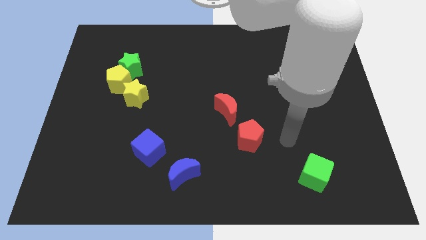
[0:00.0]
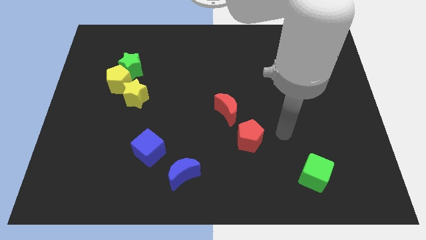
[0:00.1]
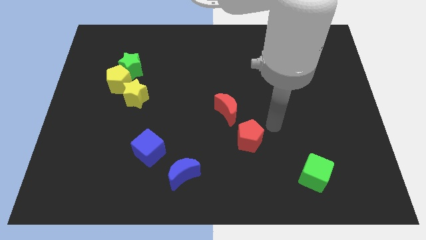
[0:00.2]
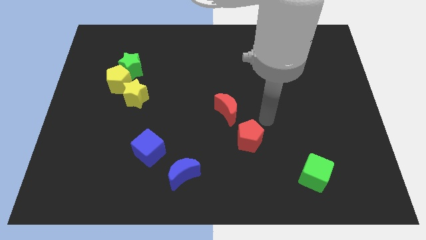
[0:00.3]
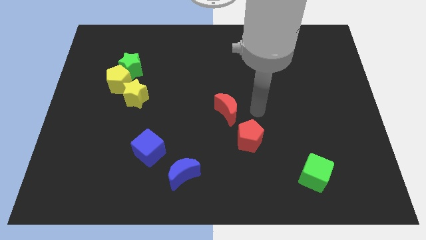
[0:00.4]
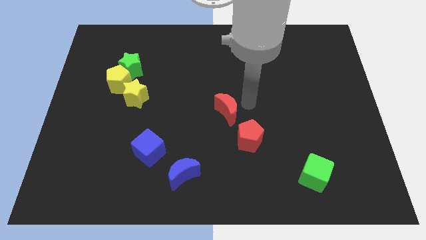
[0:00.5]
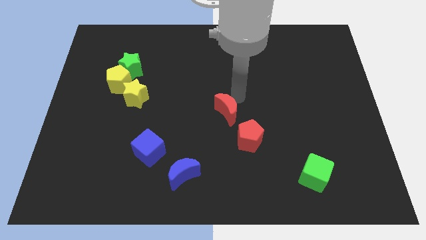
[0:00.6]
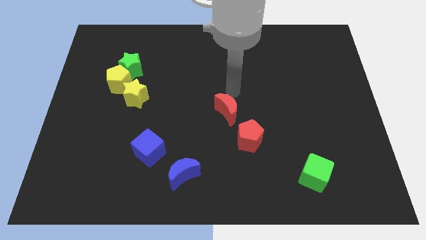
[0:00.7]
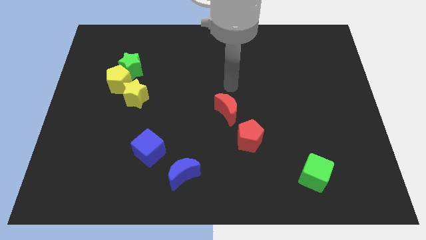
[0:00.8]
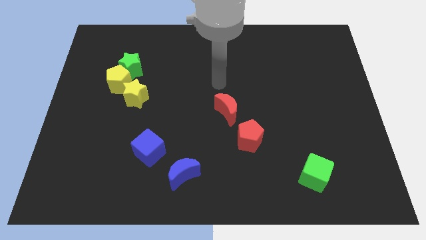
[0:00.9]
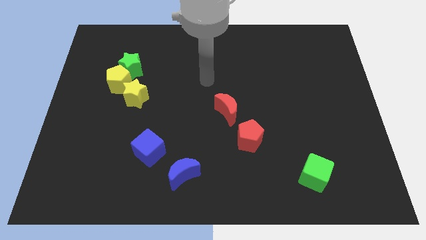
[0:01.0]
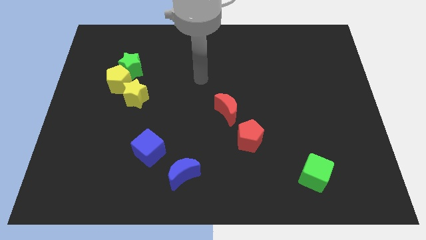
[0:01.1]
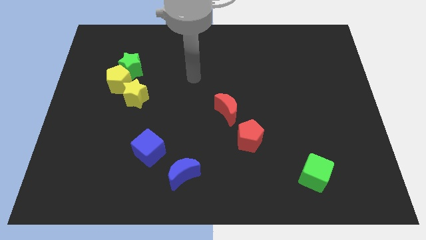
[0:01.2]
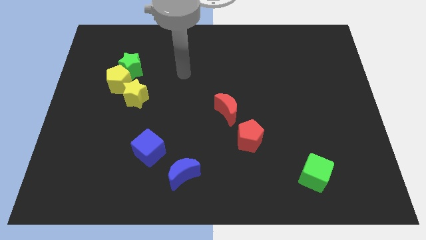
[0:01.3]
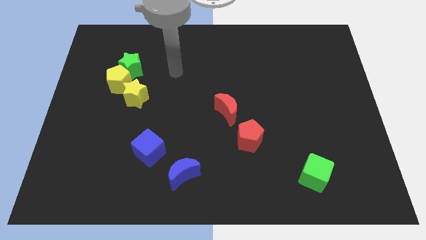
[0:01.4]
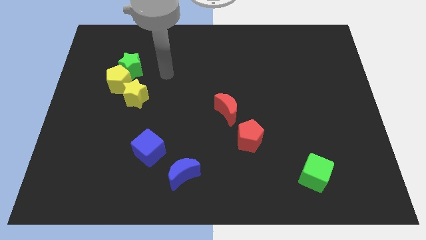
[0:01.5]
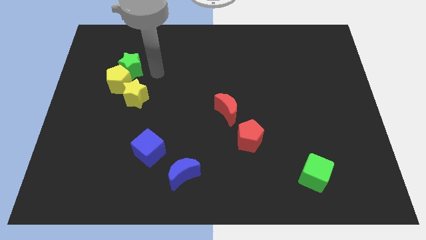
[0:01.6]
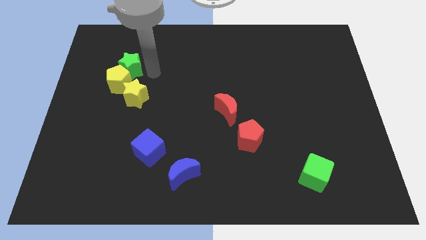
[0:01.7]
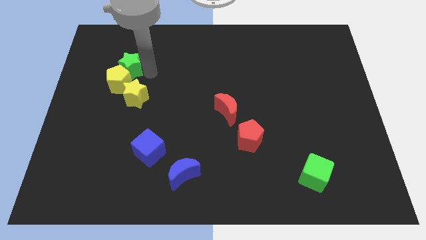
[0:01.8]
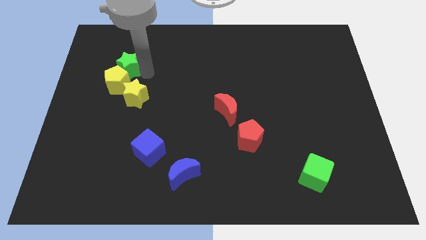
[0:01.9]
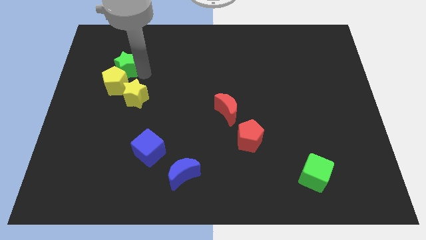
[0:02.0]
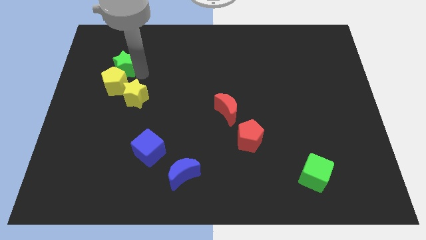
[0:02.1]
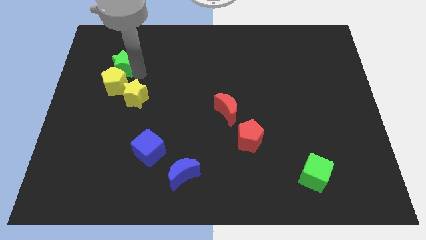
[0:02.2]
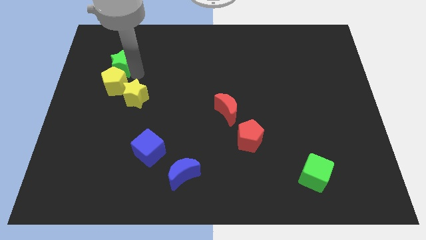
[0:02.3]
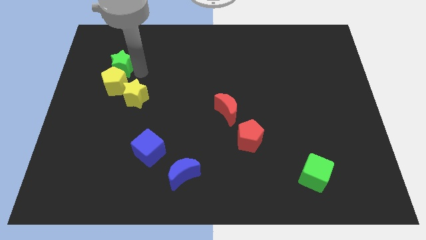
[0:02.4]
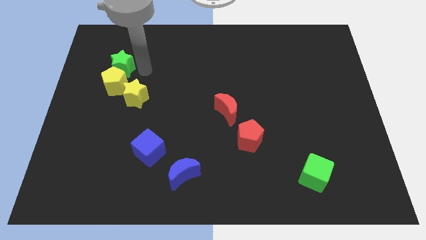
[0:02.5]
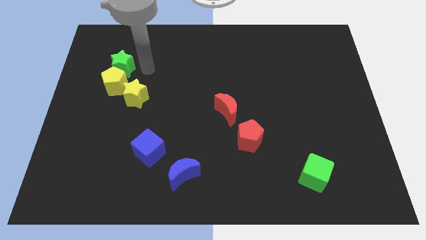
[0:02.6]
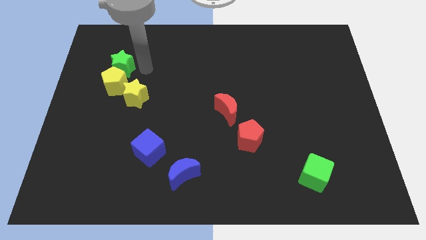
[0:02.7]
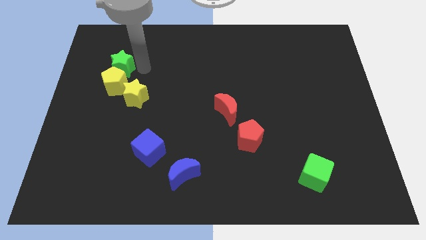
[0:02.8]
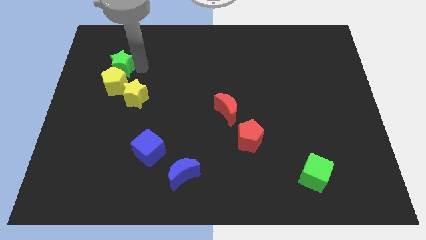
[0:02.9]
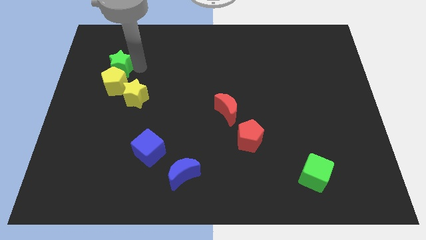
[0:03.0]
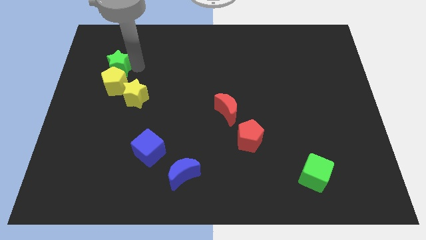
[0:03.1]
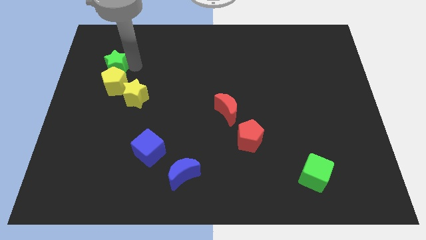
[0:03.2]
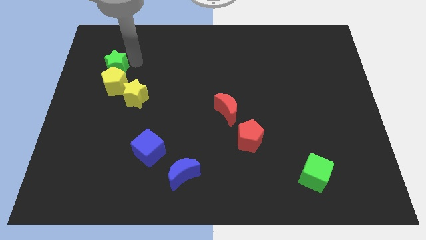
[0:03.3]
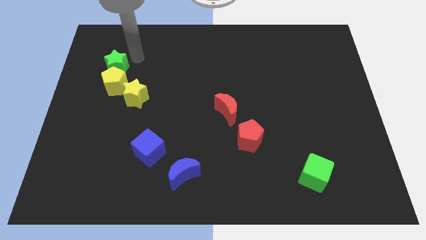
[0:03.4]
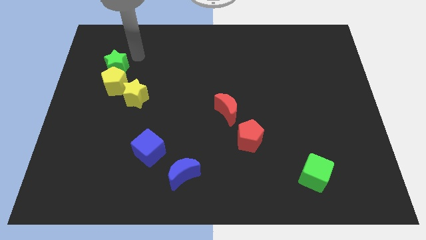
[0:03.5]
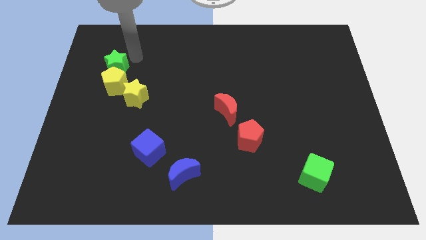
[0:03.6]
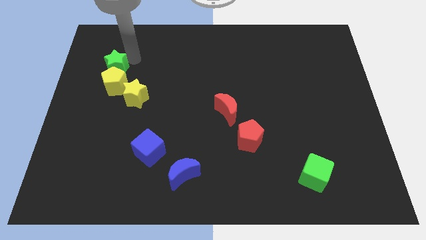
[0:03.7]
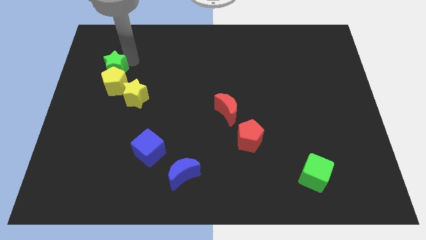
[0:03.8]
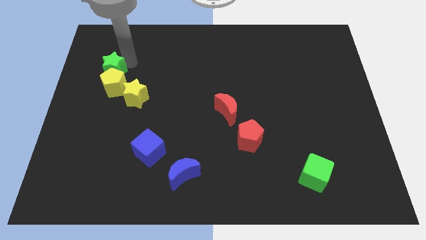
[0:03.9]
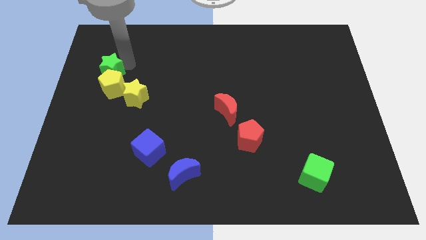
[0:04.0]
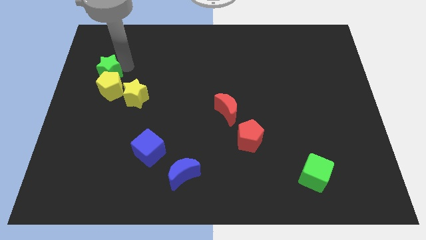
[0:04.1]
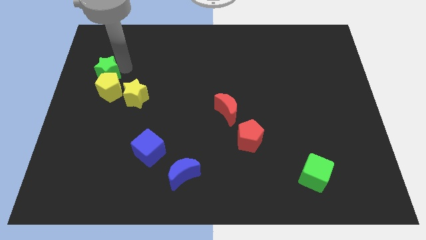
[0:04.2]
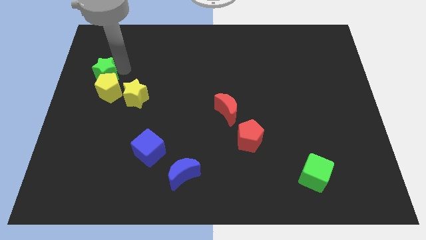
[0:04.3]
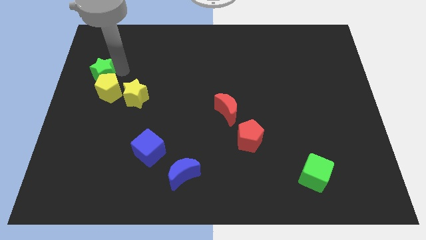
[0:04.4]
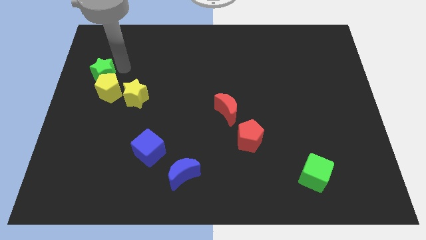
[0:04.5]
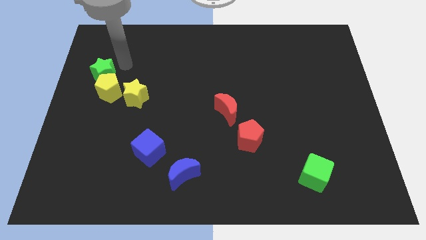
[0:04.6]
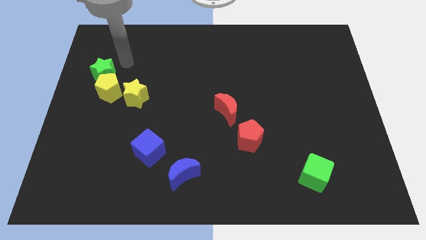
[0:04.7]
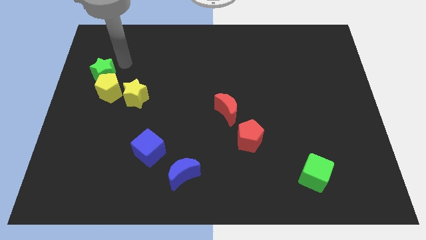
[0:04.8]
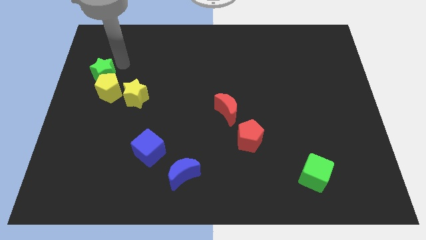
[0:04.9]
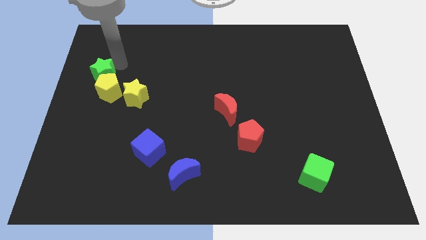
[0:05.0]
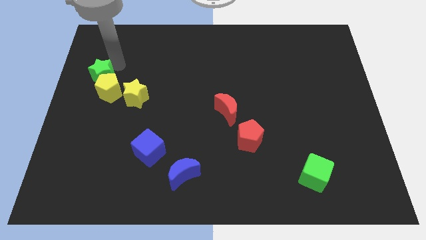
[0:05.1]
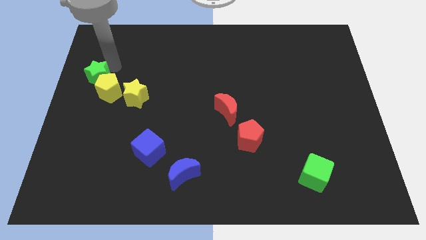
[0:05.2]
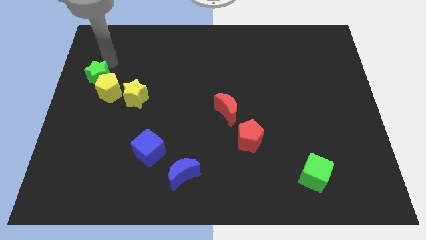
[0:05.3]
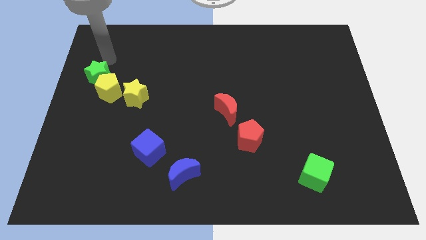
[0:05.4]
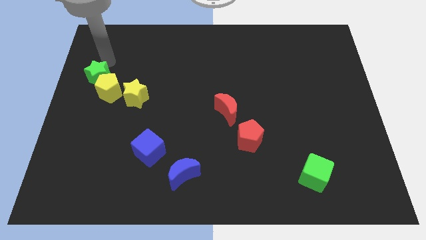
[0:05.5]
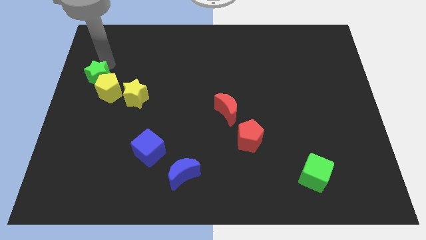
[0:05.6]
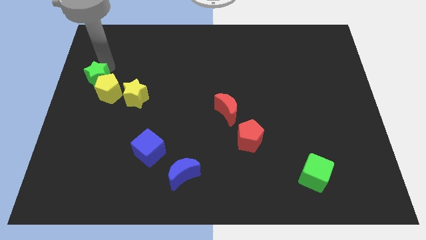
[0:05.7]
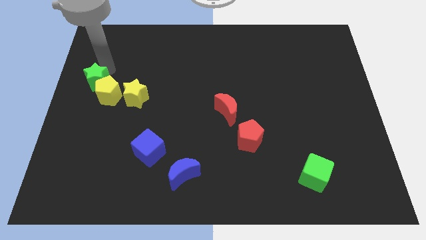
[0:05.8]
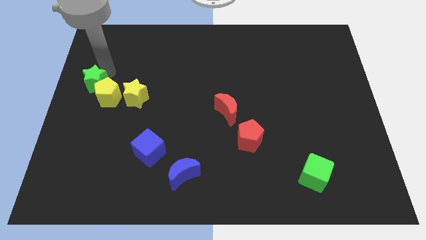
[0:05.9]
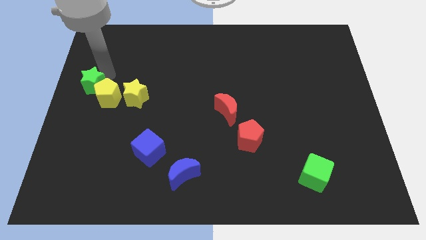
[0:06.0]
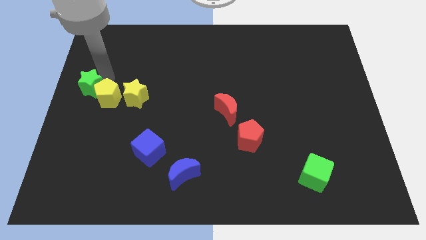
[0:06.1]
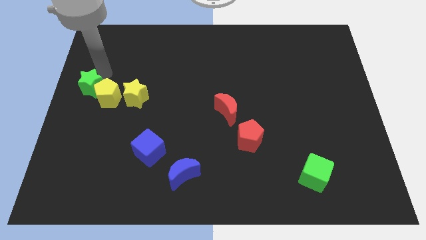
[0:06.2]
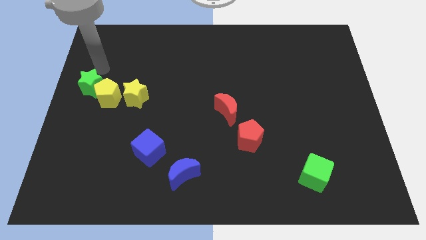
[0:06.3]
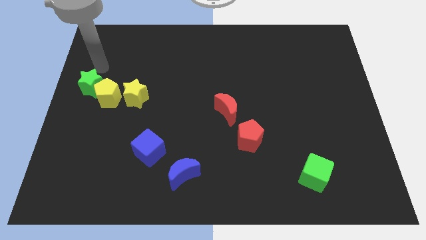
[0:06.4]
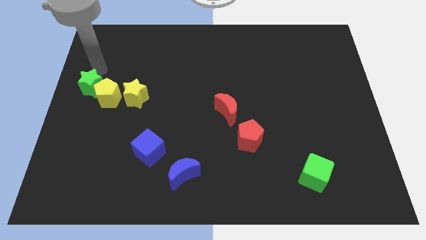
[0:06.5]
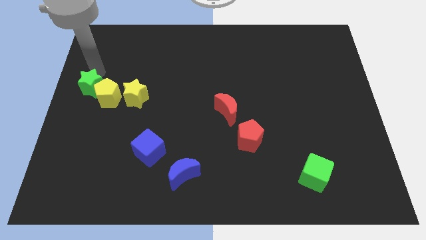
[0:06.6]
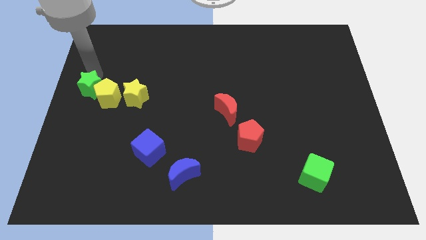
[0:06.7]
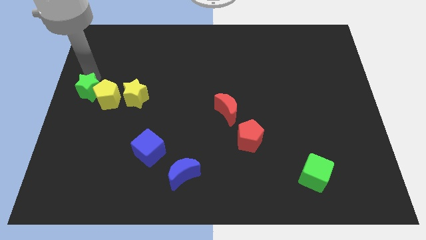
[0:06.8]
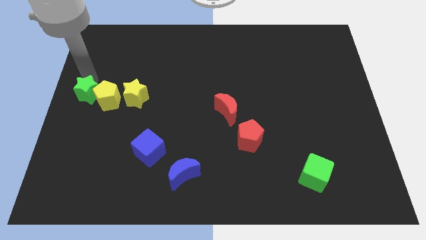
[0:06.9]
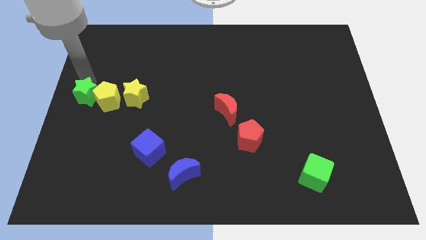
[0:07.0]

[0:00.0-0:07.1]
put the green star diagonally down and to the left of the yellow pentagon
